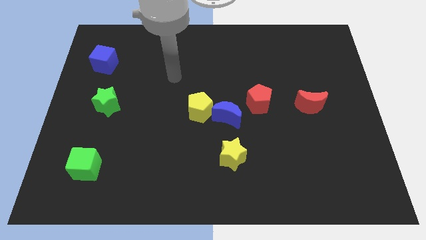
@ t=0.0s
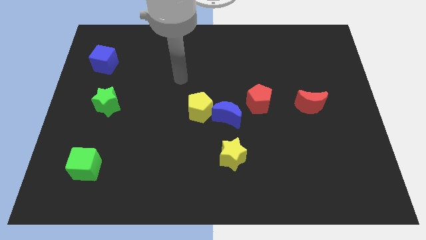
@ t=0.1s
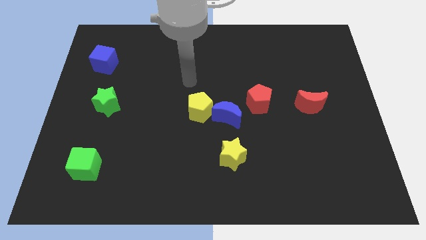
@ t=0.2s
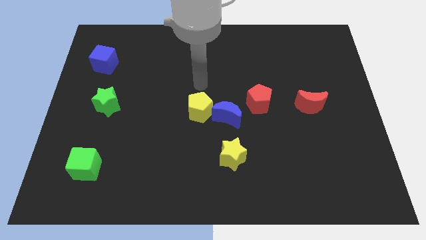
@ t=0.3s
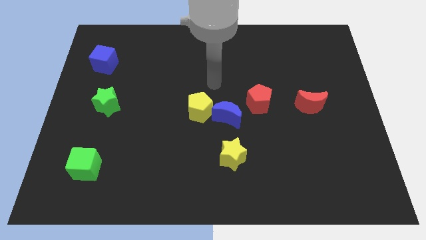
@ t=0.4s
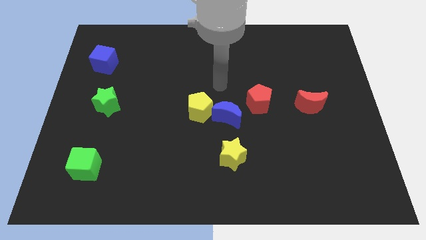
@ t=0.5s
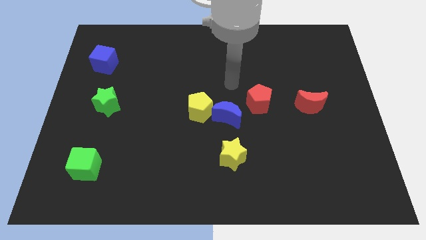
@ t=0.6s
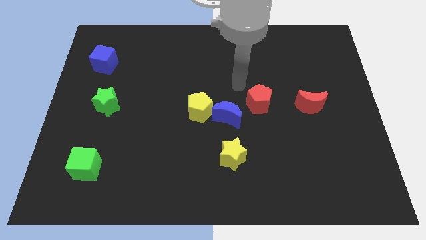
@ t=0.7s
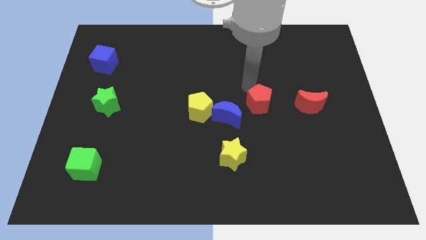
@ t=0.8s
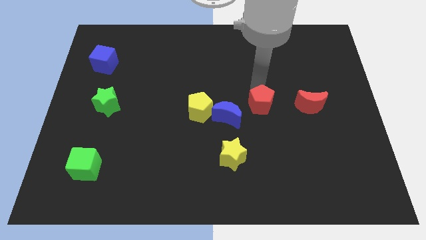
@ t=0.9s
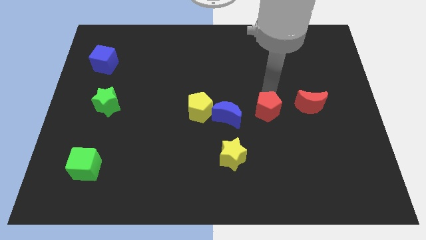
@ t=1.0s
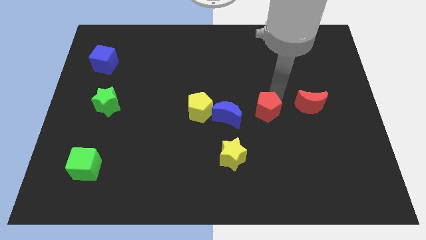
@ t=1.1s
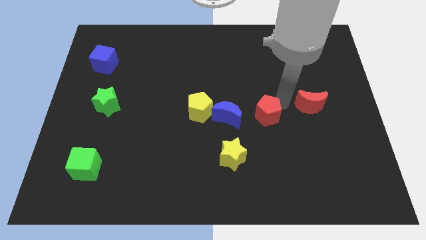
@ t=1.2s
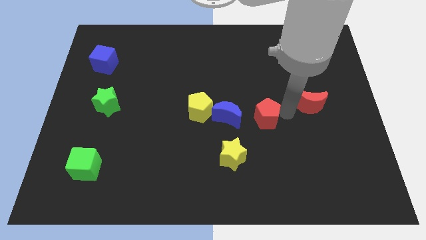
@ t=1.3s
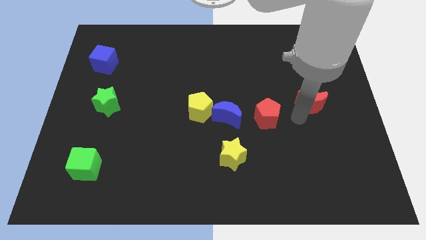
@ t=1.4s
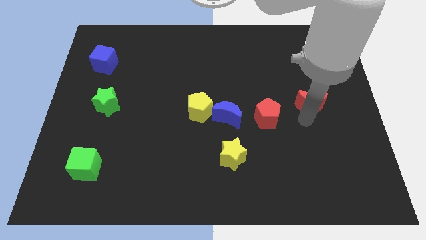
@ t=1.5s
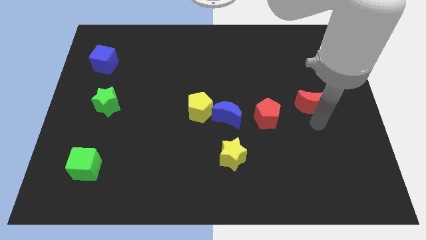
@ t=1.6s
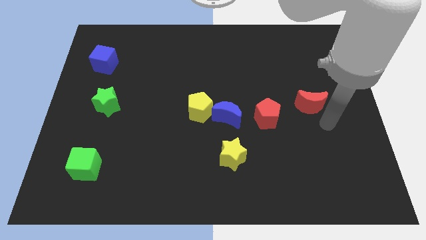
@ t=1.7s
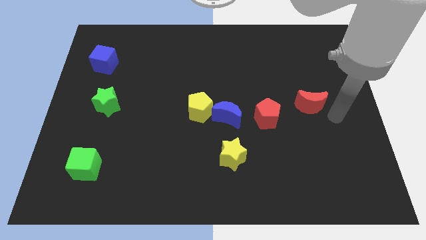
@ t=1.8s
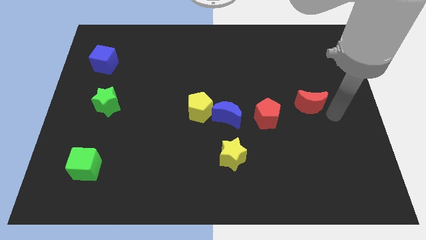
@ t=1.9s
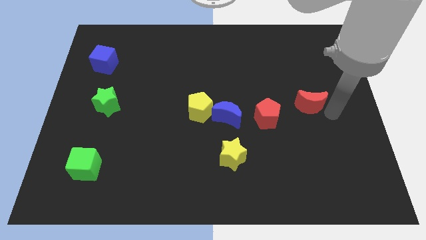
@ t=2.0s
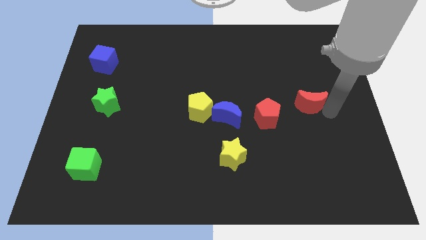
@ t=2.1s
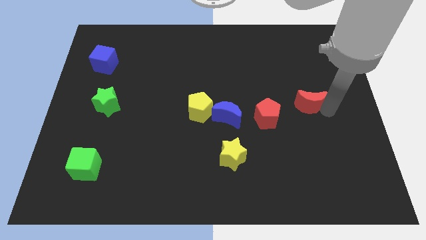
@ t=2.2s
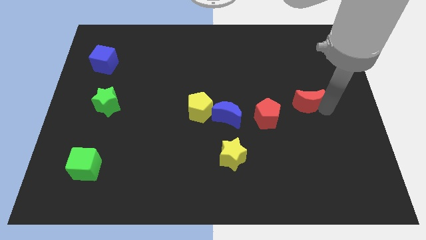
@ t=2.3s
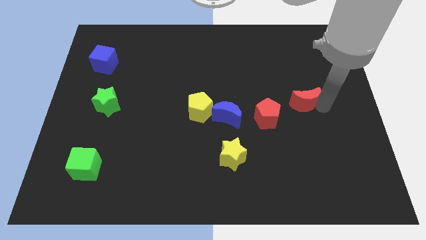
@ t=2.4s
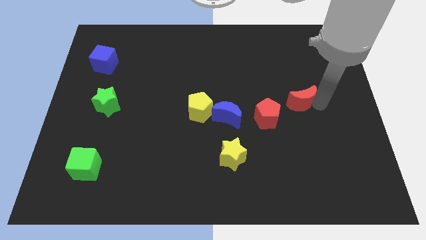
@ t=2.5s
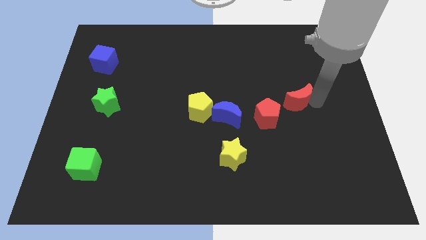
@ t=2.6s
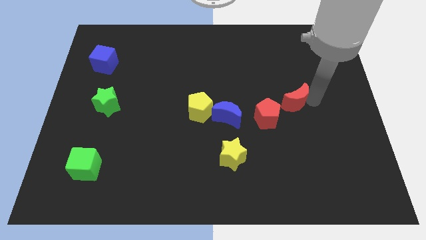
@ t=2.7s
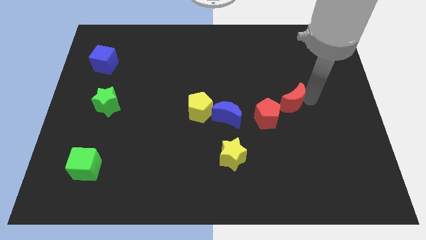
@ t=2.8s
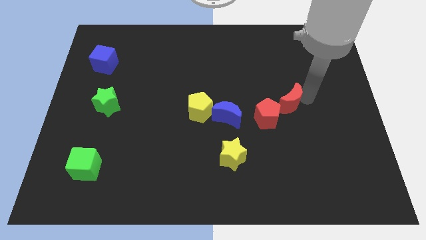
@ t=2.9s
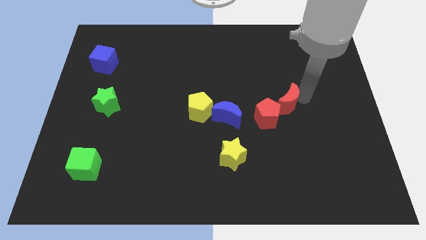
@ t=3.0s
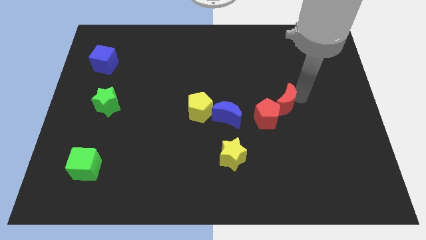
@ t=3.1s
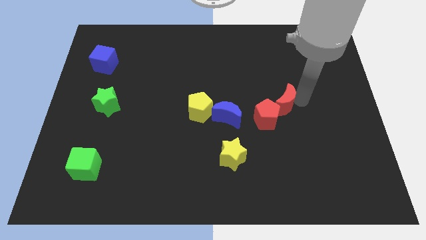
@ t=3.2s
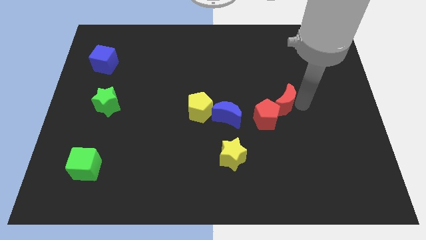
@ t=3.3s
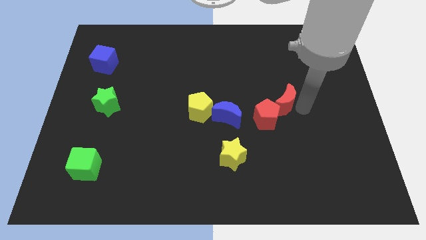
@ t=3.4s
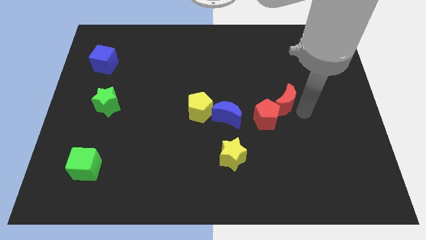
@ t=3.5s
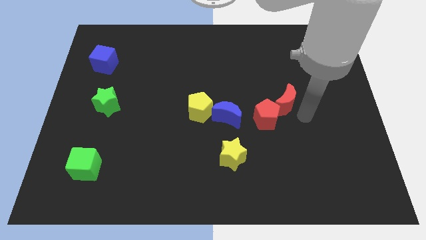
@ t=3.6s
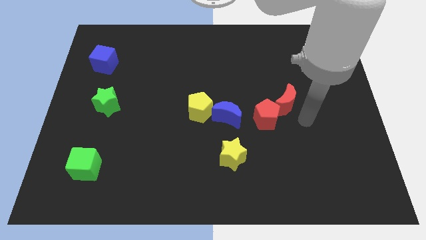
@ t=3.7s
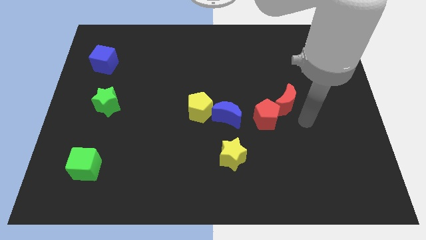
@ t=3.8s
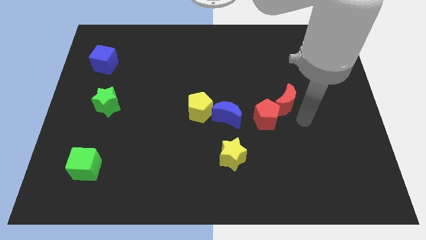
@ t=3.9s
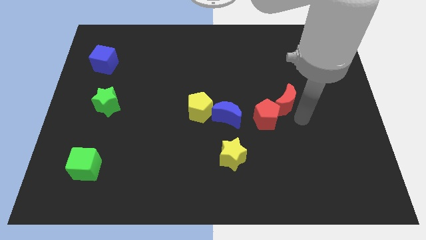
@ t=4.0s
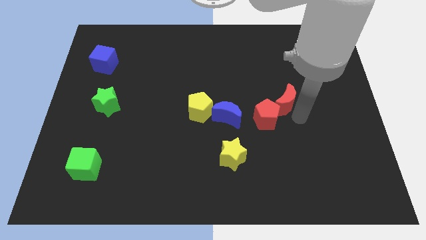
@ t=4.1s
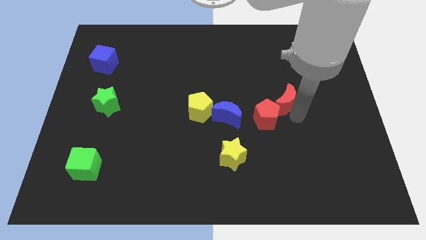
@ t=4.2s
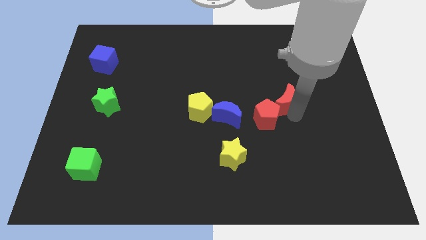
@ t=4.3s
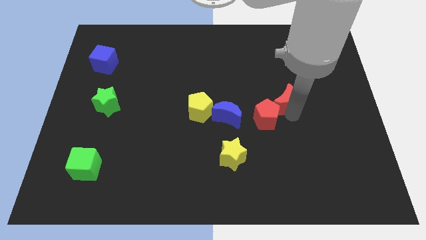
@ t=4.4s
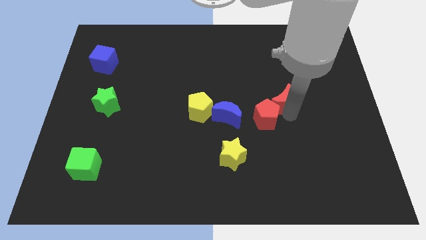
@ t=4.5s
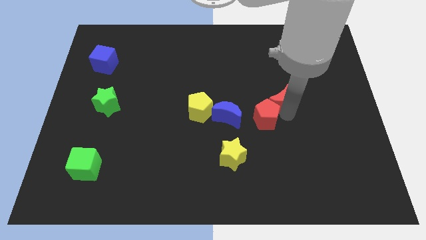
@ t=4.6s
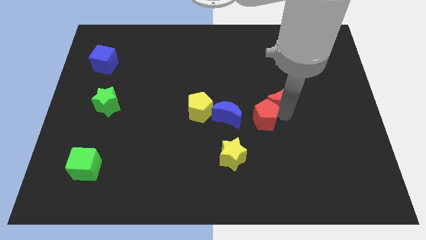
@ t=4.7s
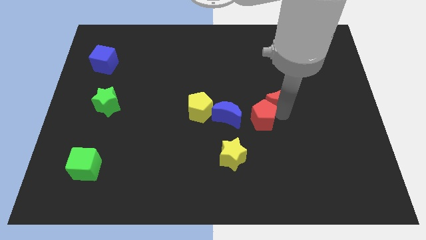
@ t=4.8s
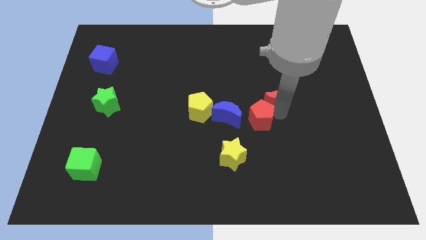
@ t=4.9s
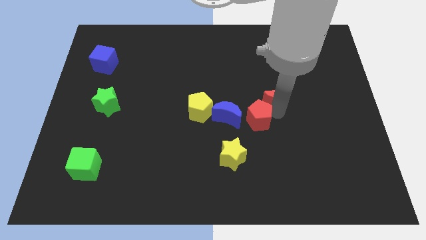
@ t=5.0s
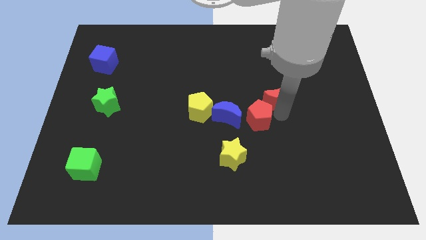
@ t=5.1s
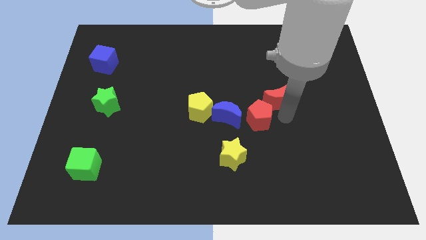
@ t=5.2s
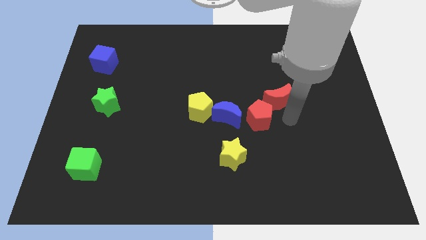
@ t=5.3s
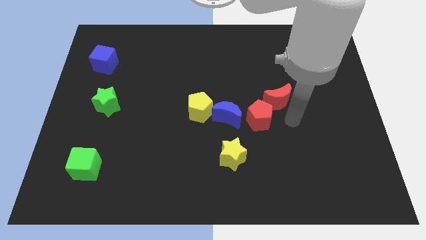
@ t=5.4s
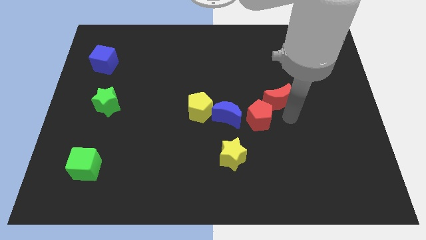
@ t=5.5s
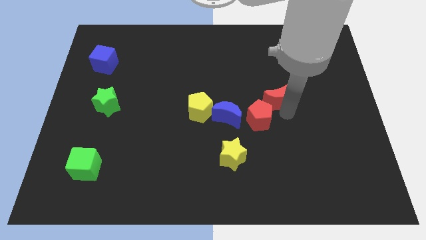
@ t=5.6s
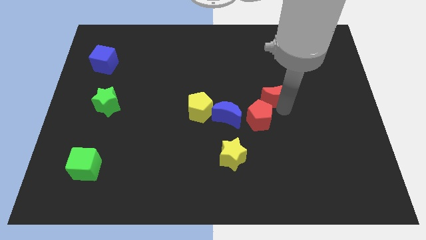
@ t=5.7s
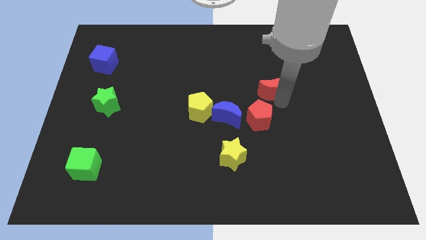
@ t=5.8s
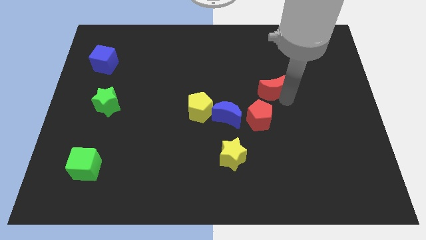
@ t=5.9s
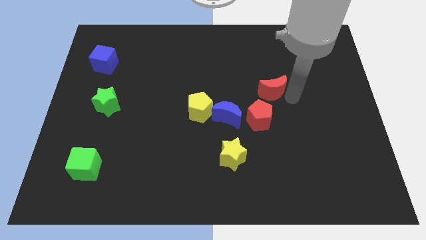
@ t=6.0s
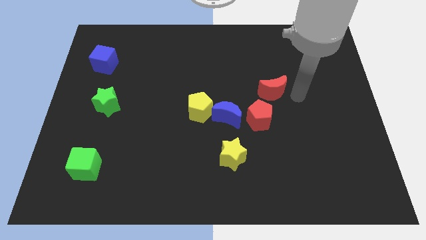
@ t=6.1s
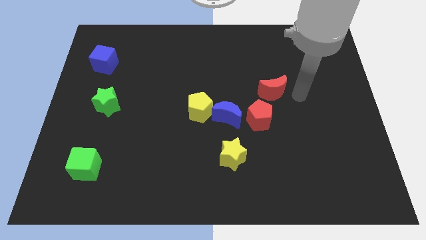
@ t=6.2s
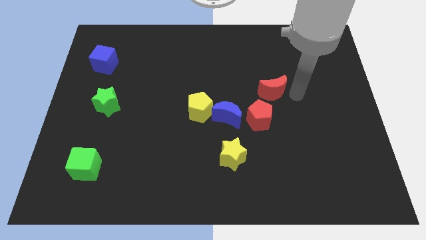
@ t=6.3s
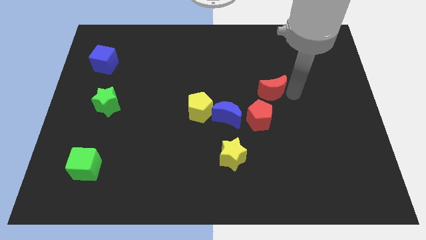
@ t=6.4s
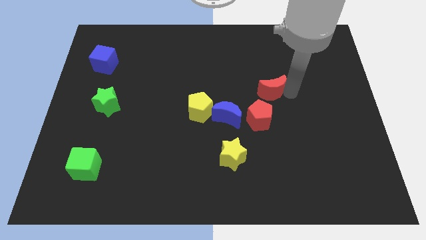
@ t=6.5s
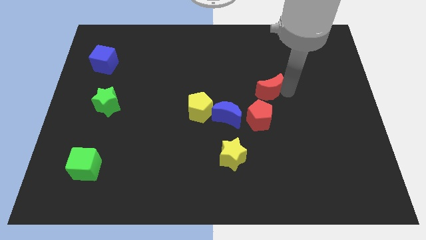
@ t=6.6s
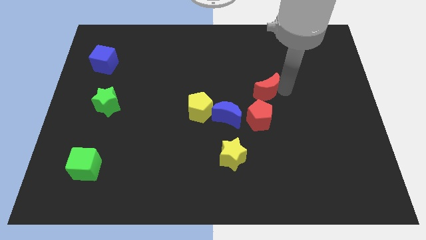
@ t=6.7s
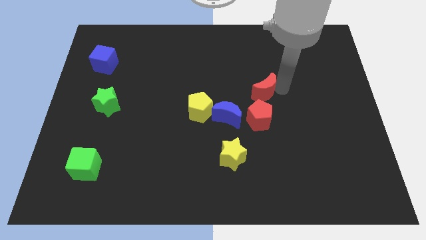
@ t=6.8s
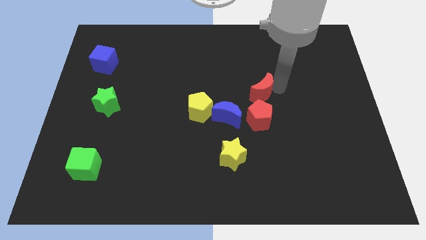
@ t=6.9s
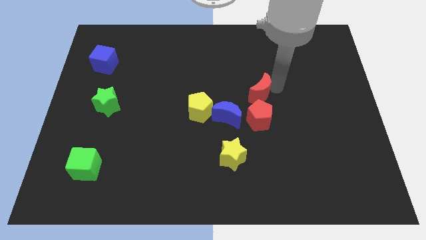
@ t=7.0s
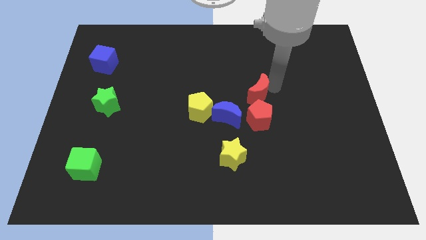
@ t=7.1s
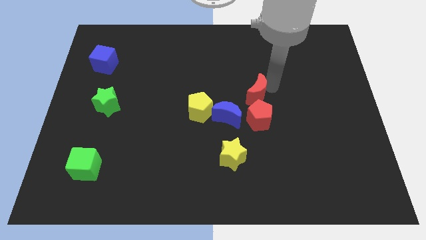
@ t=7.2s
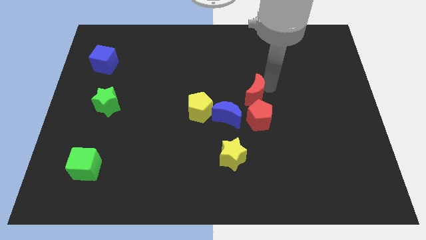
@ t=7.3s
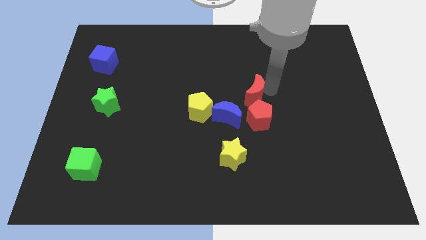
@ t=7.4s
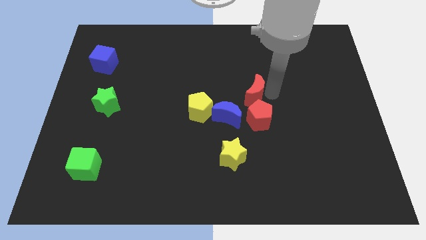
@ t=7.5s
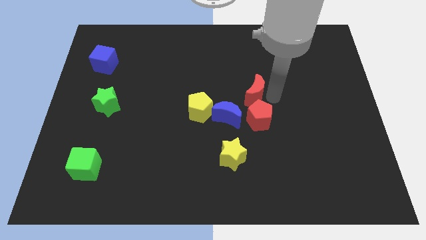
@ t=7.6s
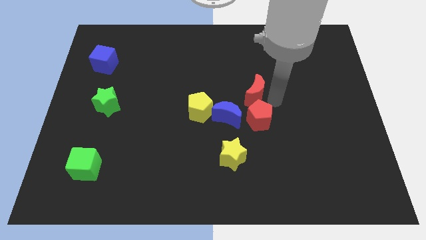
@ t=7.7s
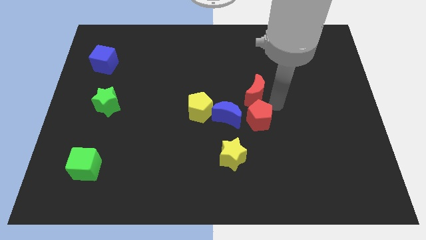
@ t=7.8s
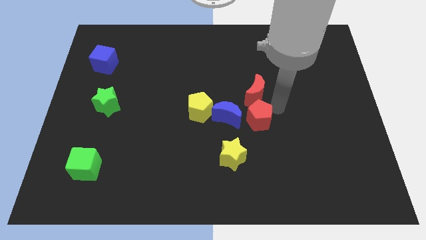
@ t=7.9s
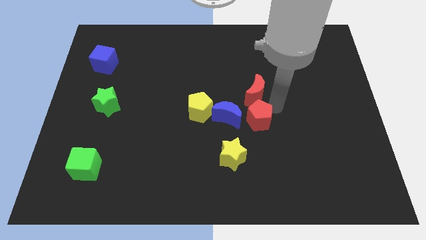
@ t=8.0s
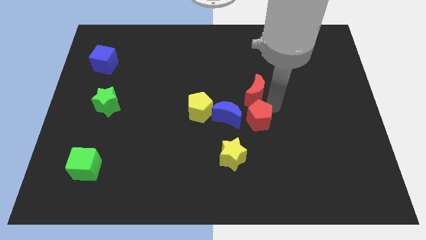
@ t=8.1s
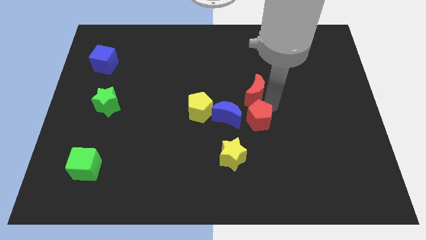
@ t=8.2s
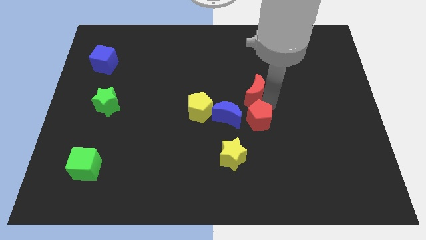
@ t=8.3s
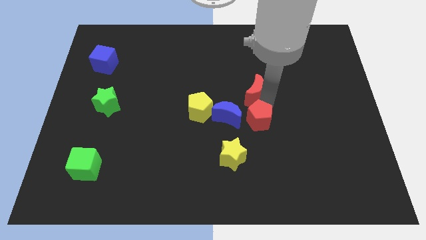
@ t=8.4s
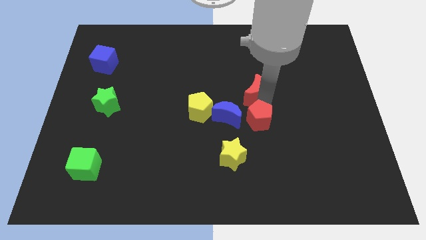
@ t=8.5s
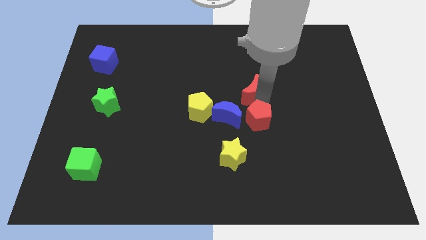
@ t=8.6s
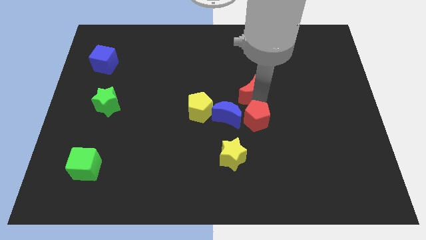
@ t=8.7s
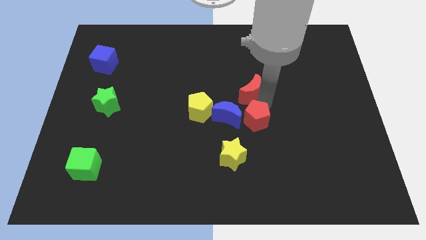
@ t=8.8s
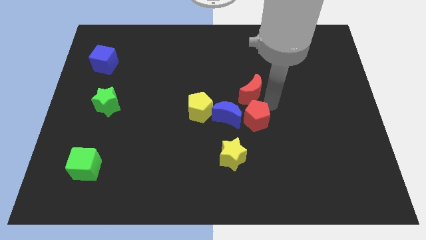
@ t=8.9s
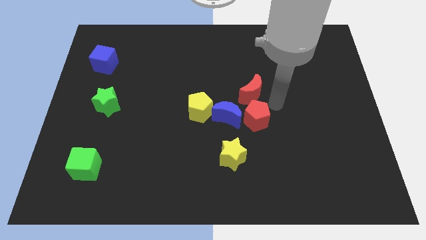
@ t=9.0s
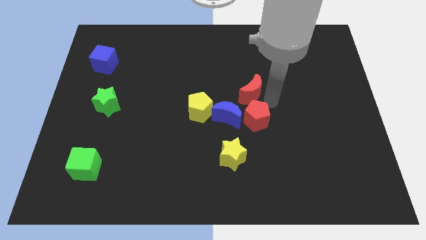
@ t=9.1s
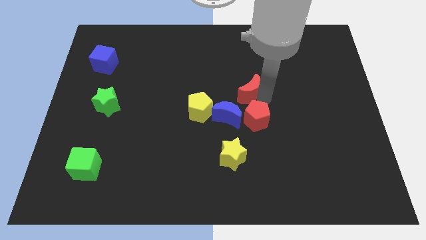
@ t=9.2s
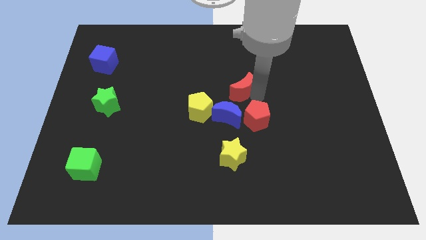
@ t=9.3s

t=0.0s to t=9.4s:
move the red moon to the top of the blue moon
